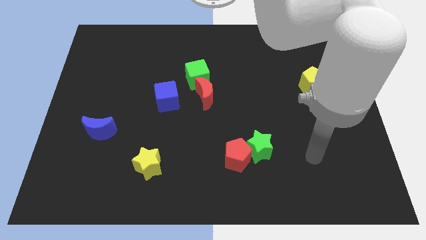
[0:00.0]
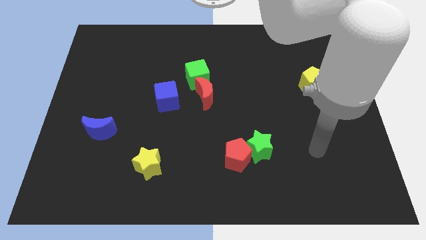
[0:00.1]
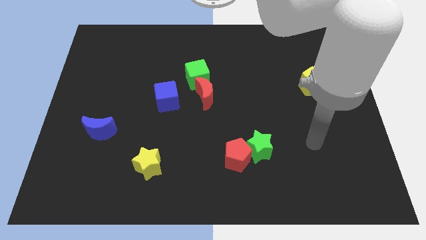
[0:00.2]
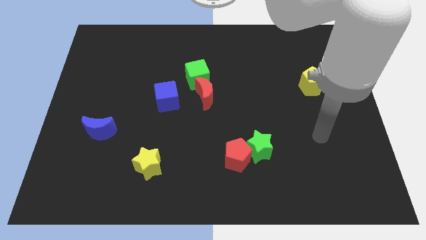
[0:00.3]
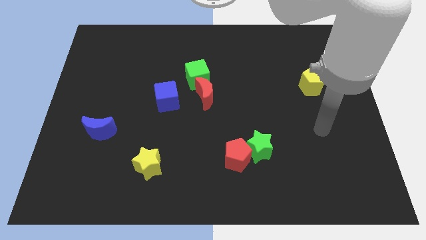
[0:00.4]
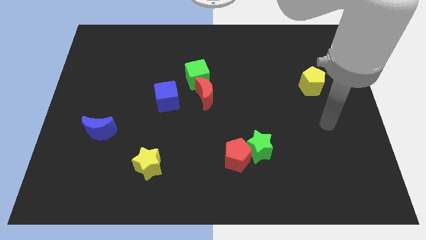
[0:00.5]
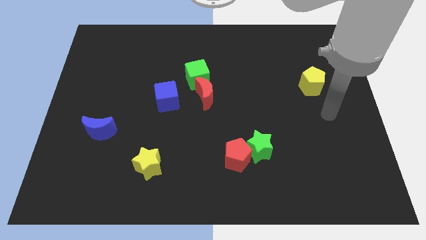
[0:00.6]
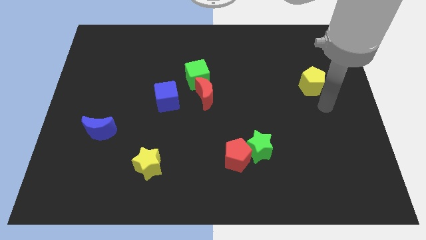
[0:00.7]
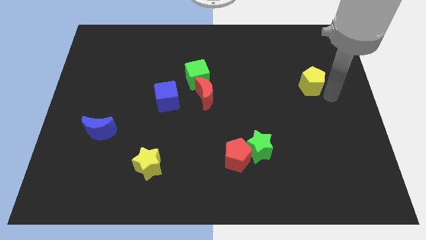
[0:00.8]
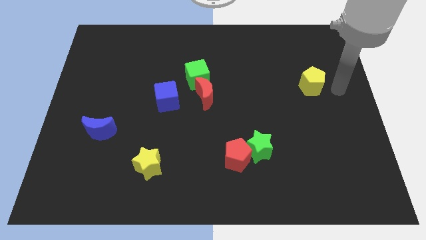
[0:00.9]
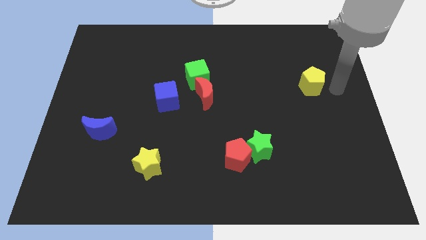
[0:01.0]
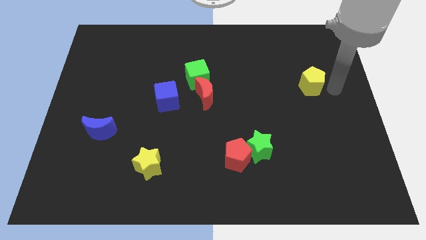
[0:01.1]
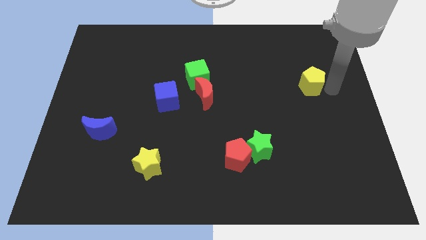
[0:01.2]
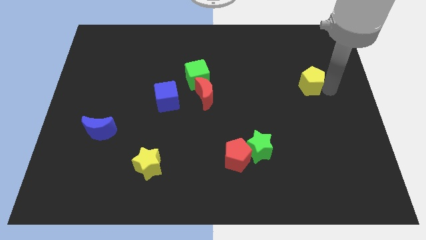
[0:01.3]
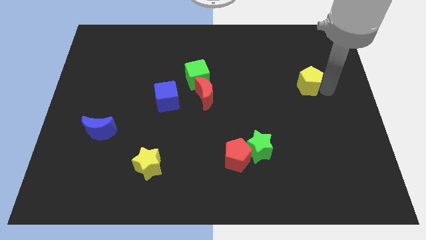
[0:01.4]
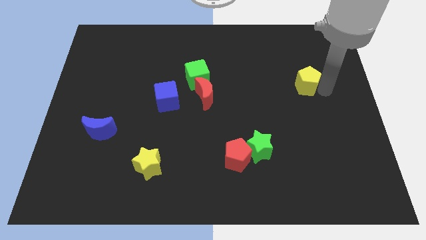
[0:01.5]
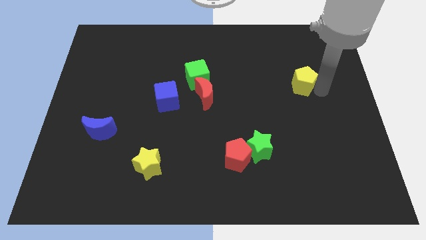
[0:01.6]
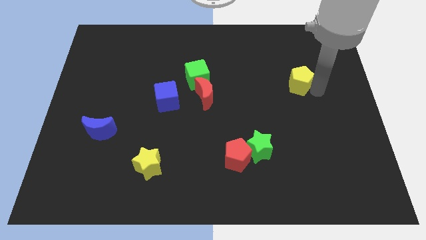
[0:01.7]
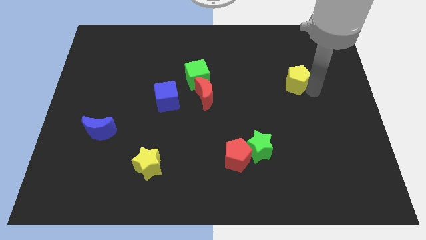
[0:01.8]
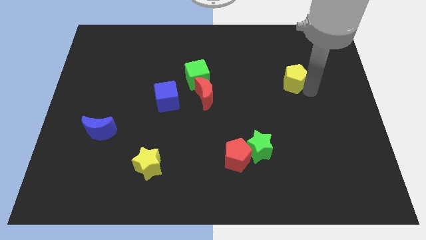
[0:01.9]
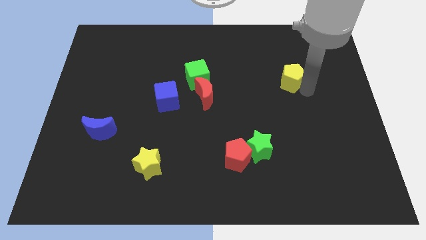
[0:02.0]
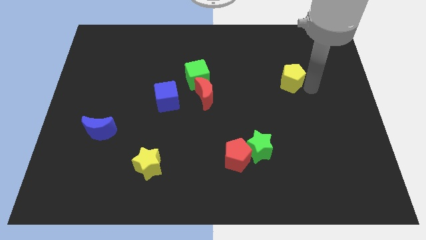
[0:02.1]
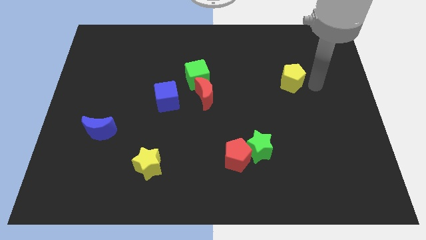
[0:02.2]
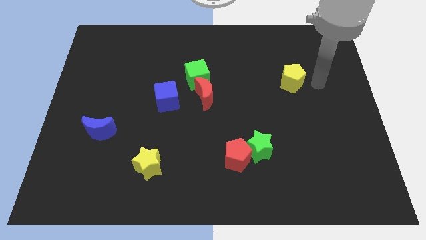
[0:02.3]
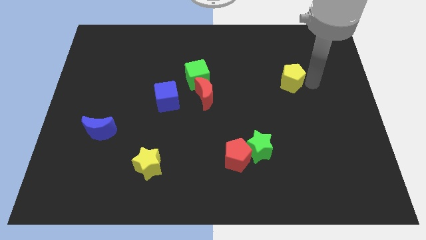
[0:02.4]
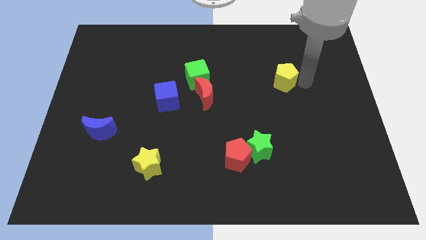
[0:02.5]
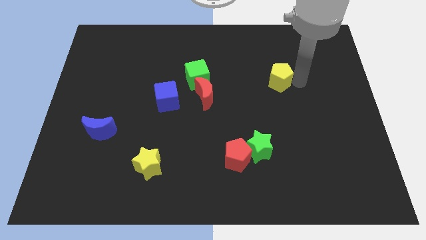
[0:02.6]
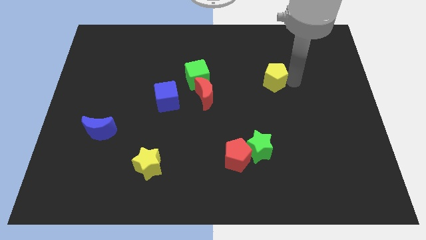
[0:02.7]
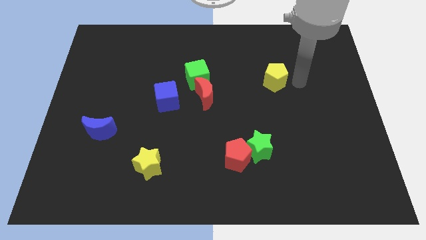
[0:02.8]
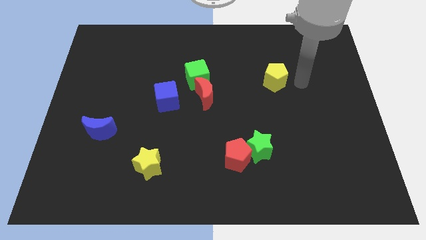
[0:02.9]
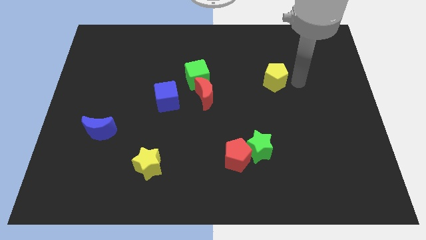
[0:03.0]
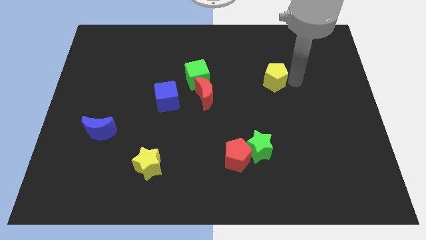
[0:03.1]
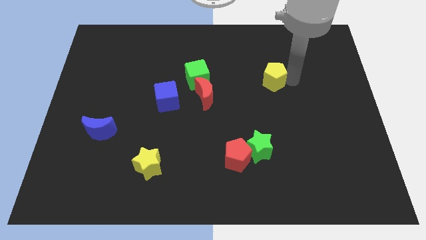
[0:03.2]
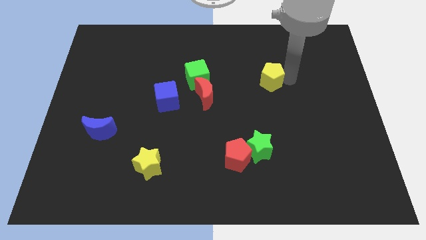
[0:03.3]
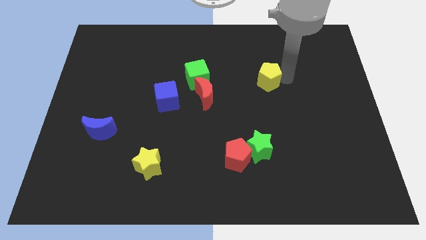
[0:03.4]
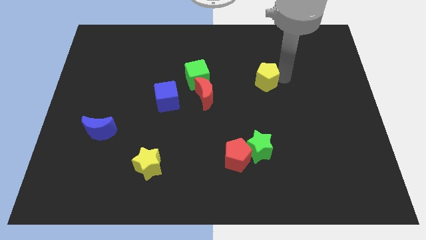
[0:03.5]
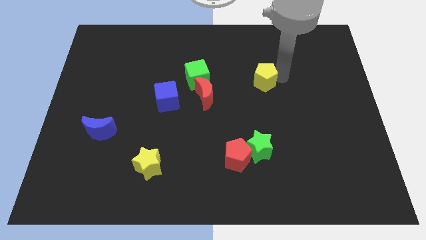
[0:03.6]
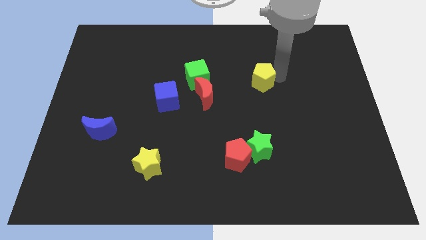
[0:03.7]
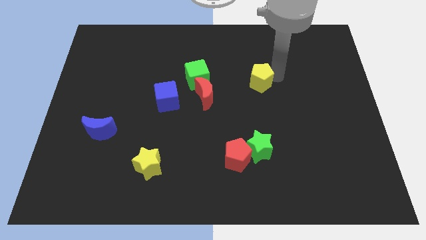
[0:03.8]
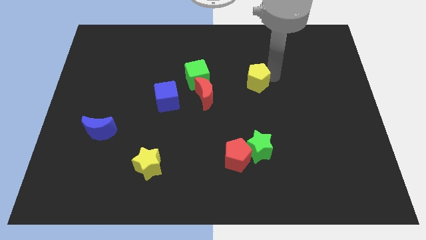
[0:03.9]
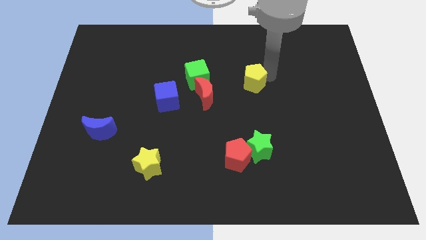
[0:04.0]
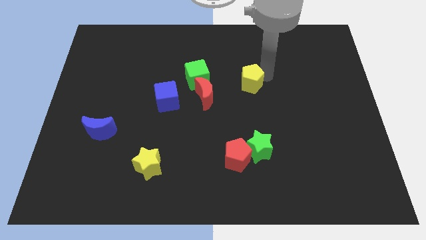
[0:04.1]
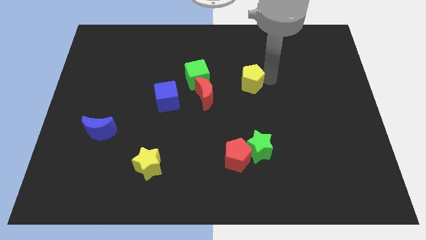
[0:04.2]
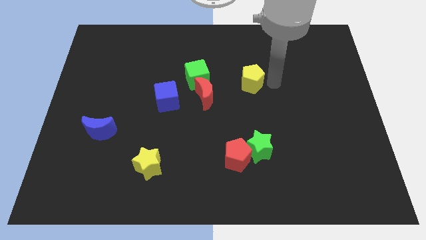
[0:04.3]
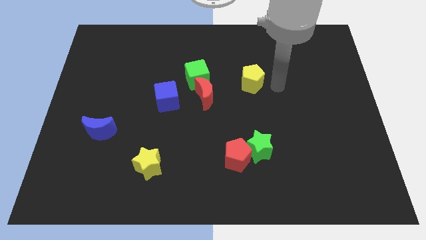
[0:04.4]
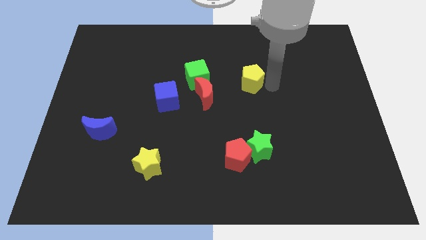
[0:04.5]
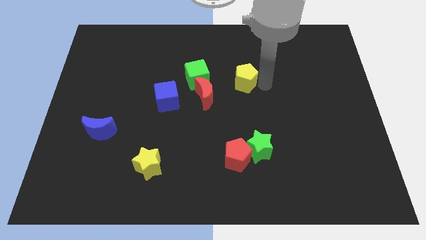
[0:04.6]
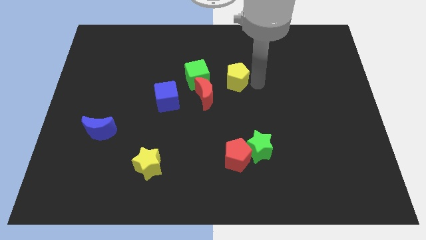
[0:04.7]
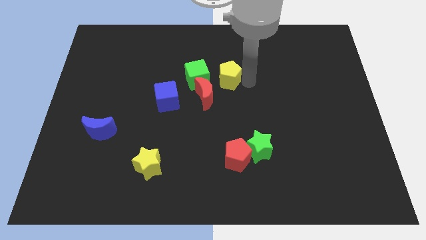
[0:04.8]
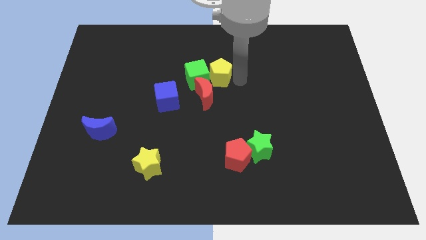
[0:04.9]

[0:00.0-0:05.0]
move the yellow pentagon to the green cube

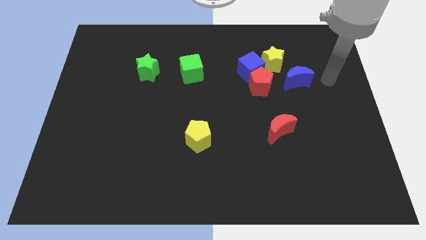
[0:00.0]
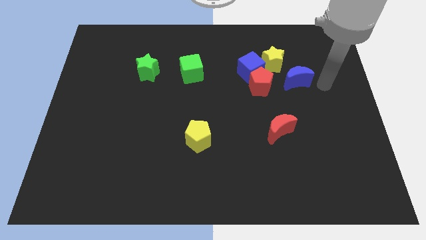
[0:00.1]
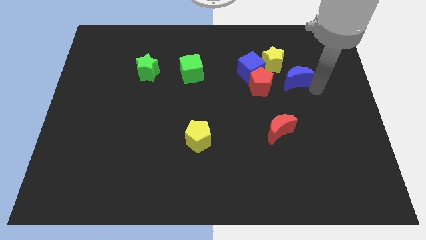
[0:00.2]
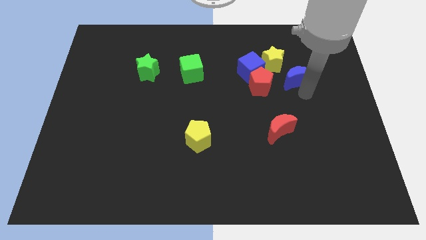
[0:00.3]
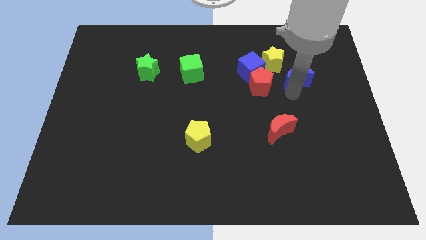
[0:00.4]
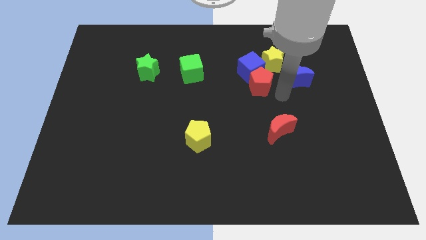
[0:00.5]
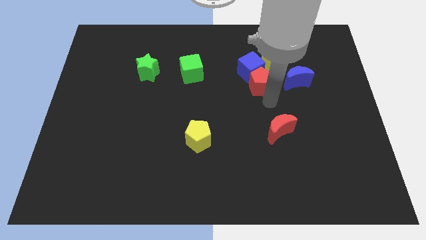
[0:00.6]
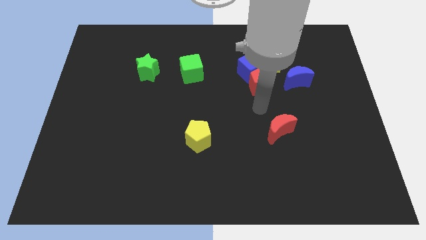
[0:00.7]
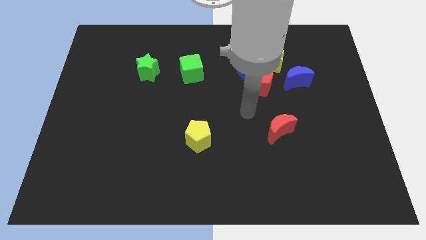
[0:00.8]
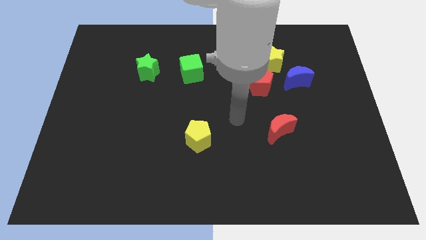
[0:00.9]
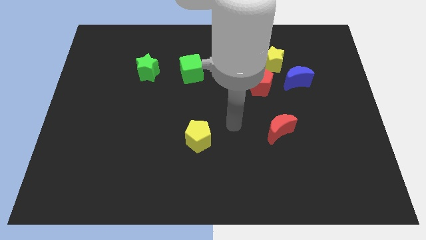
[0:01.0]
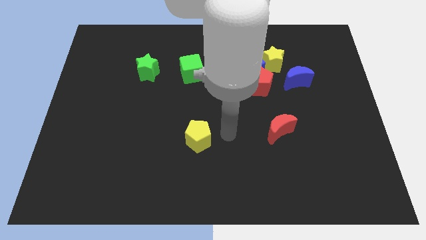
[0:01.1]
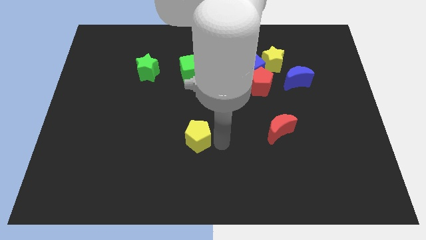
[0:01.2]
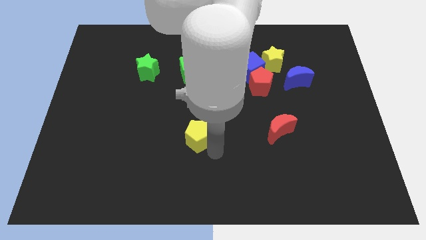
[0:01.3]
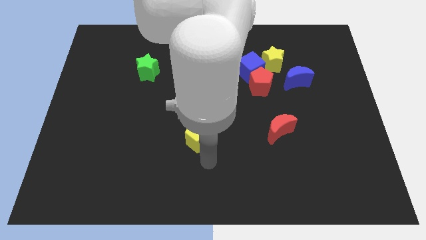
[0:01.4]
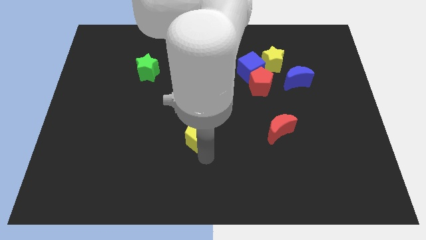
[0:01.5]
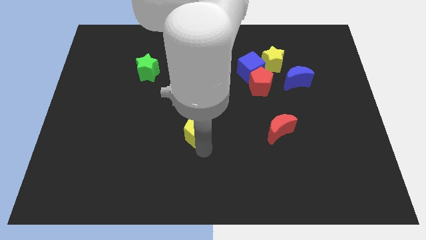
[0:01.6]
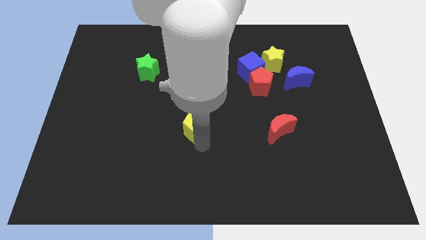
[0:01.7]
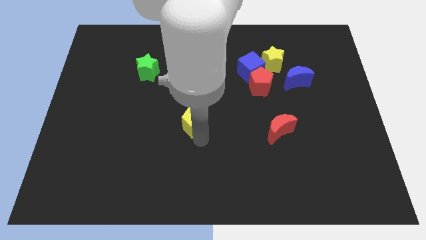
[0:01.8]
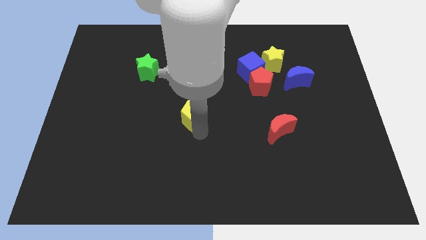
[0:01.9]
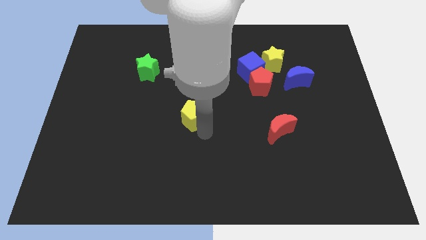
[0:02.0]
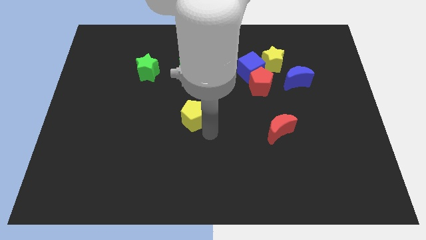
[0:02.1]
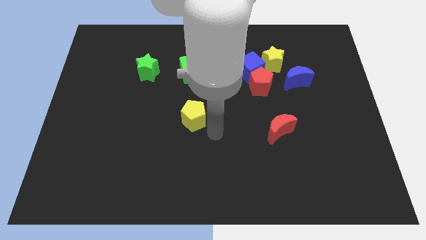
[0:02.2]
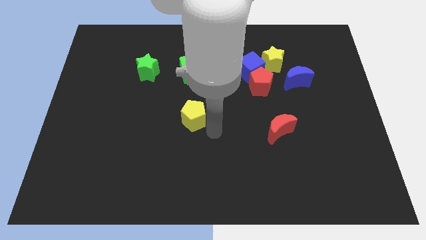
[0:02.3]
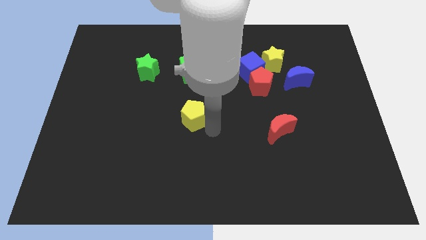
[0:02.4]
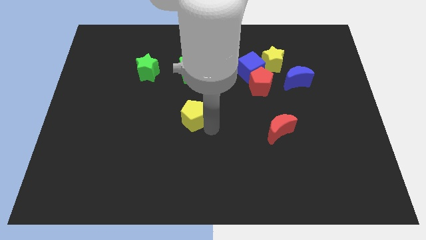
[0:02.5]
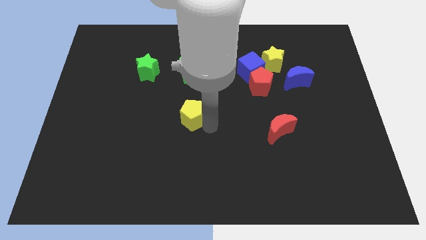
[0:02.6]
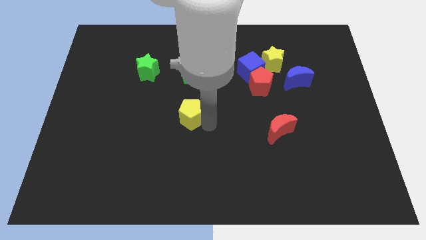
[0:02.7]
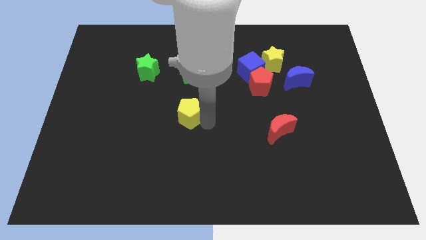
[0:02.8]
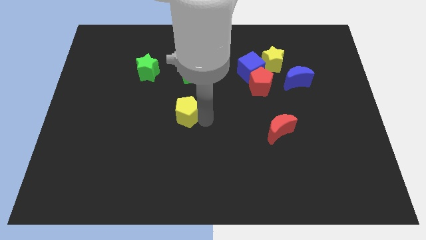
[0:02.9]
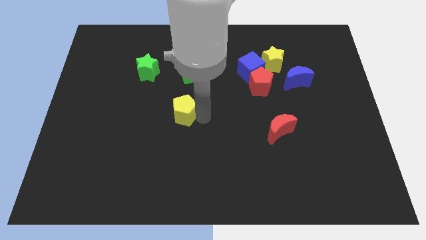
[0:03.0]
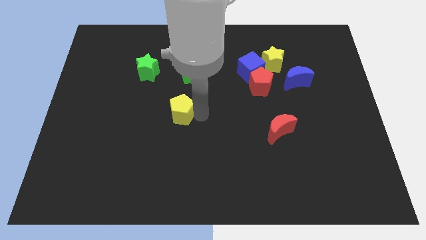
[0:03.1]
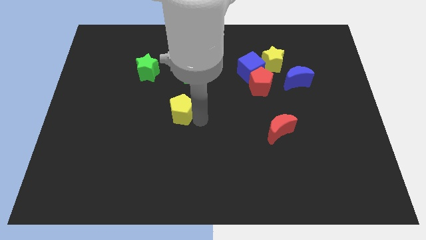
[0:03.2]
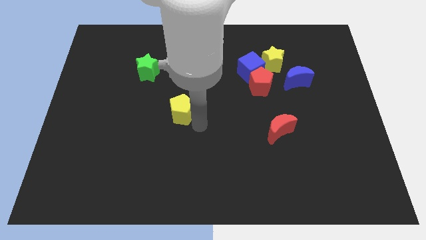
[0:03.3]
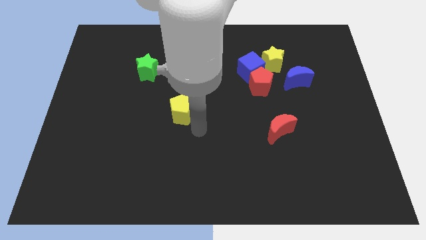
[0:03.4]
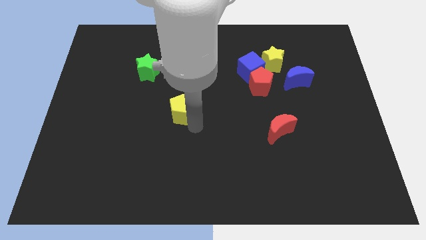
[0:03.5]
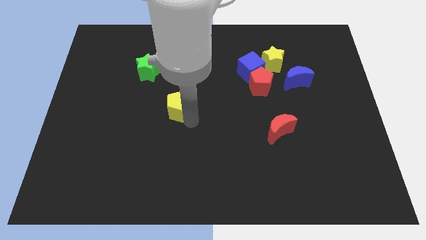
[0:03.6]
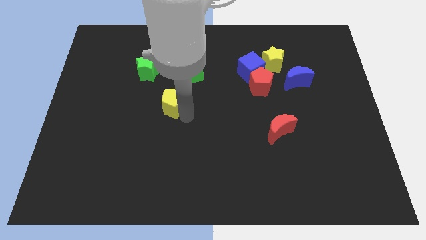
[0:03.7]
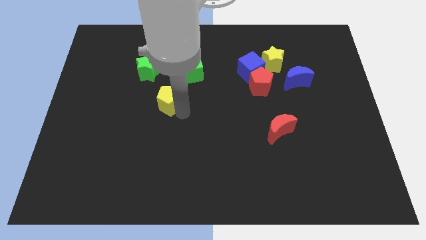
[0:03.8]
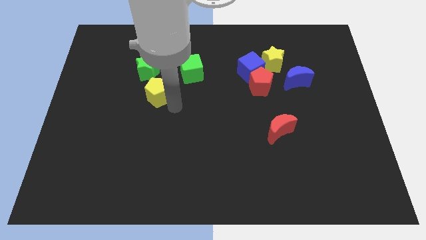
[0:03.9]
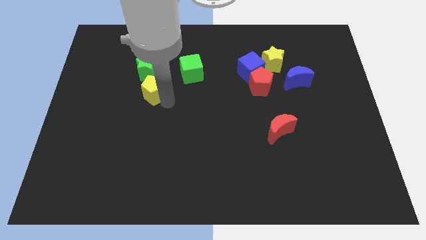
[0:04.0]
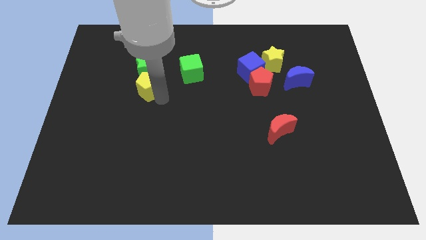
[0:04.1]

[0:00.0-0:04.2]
slide the yellow pentagon close to the green star
